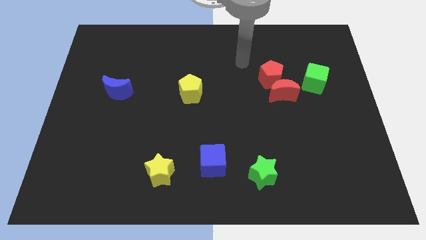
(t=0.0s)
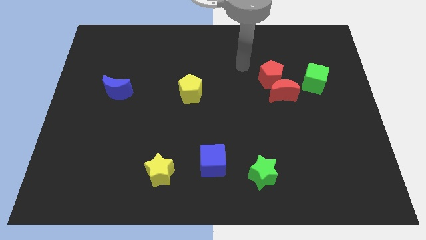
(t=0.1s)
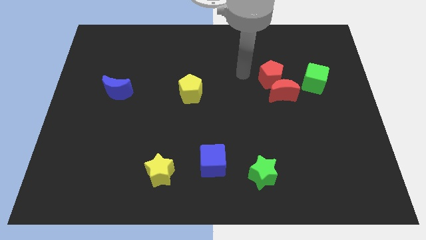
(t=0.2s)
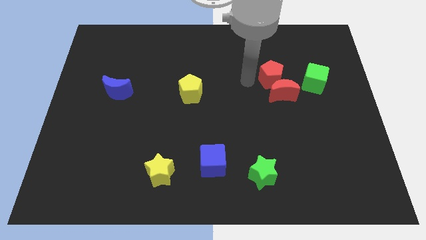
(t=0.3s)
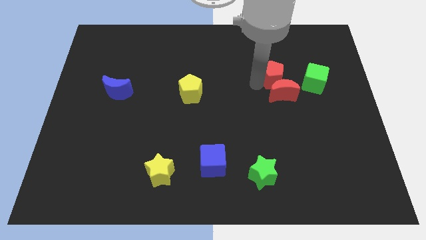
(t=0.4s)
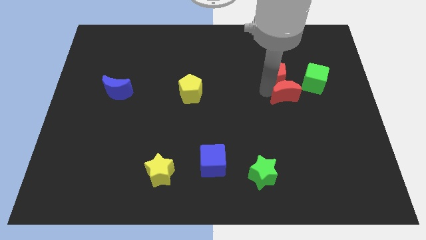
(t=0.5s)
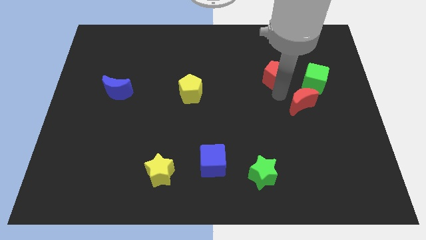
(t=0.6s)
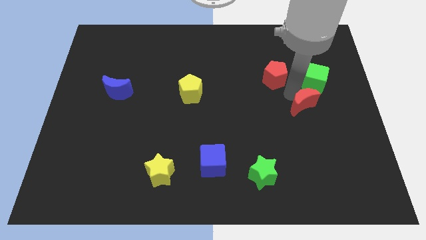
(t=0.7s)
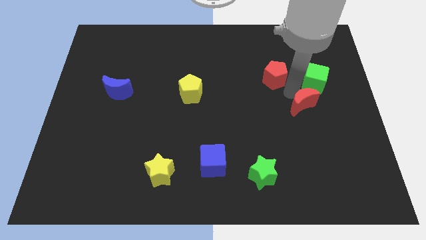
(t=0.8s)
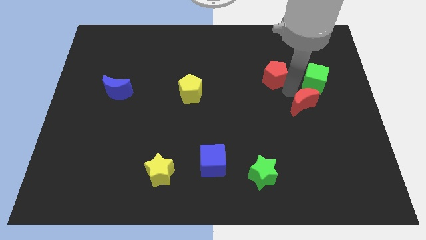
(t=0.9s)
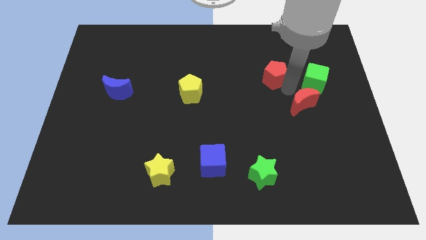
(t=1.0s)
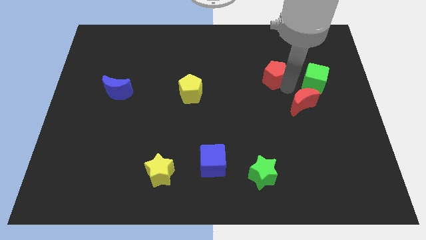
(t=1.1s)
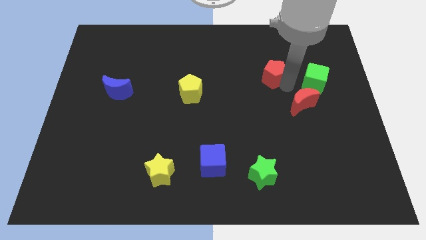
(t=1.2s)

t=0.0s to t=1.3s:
separate the red pentagon from the red moon

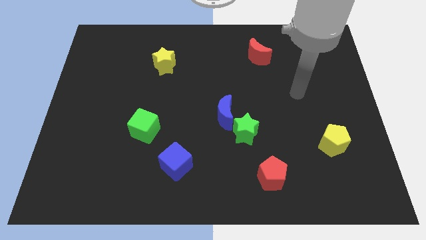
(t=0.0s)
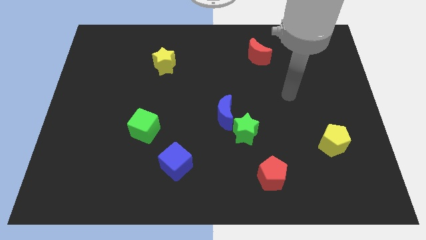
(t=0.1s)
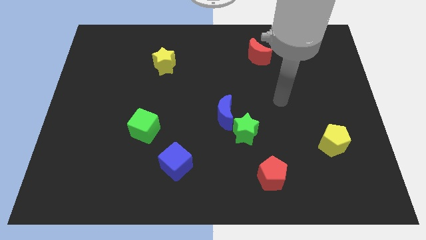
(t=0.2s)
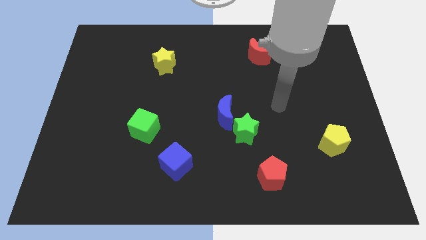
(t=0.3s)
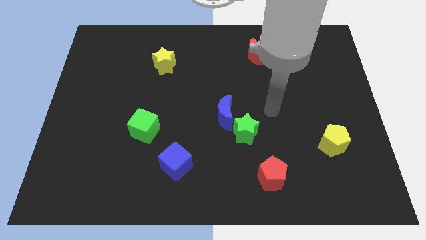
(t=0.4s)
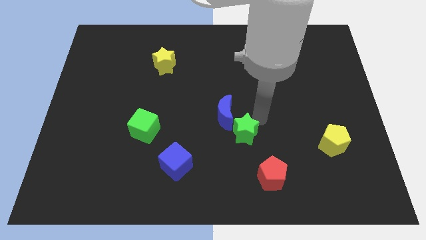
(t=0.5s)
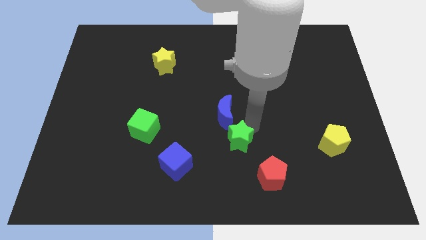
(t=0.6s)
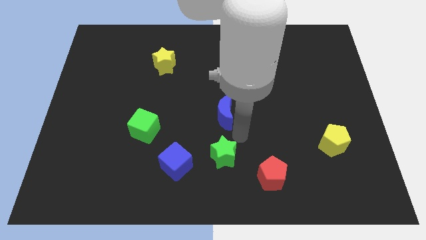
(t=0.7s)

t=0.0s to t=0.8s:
pull the blue moon apart from the green star

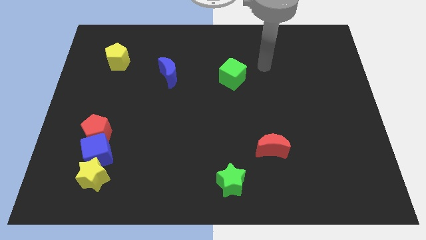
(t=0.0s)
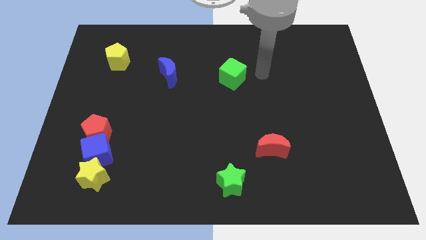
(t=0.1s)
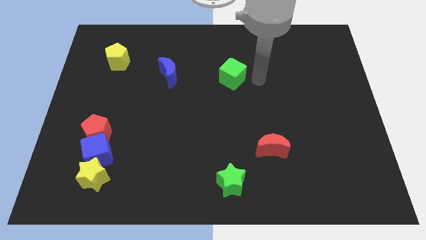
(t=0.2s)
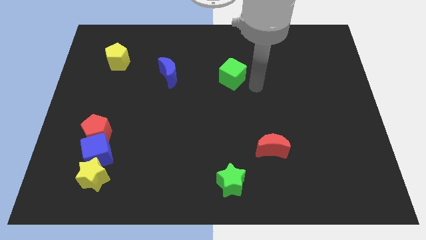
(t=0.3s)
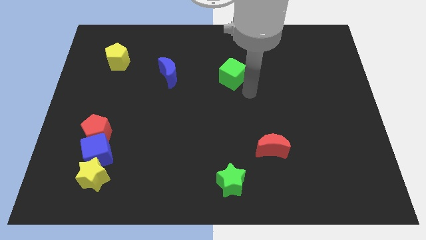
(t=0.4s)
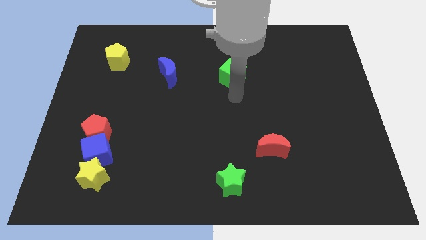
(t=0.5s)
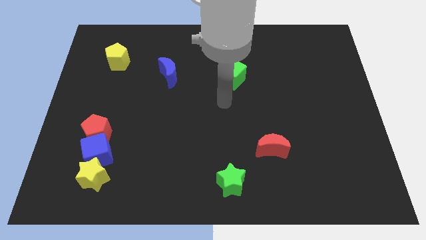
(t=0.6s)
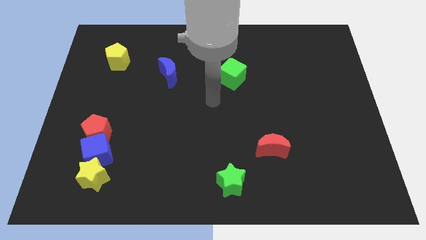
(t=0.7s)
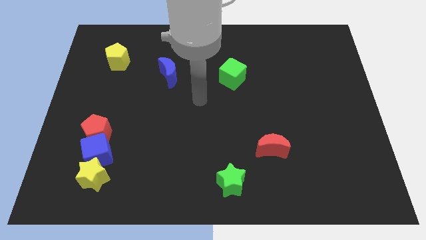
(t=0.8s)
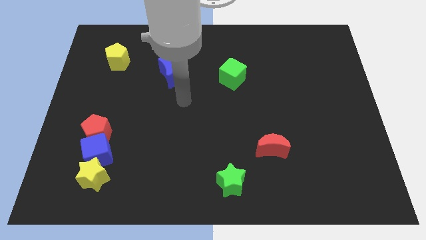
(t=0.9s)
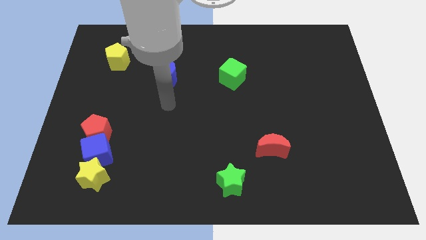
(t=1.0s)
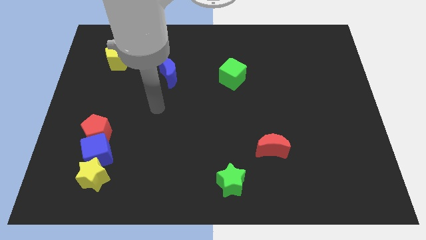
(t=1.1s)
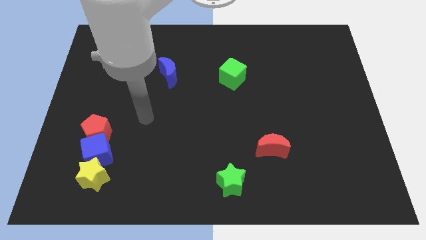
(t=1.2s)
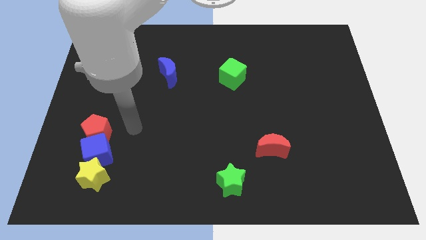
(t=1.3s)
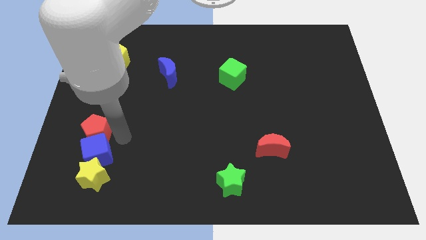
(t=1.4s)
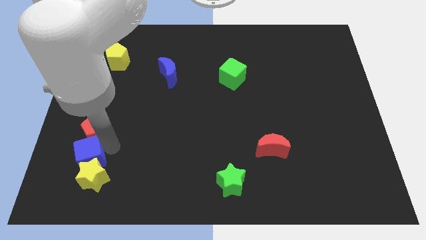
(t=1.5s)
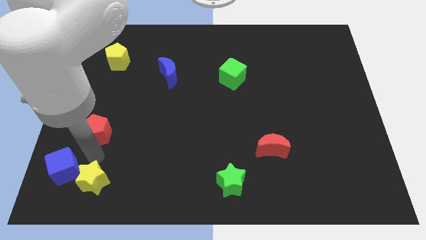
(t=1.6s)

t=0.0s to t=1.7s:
separate the red pentagon from the blue cube

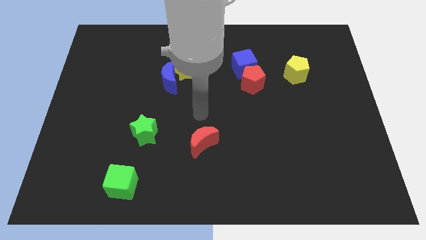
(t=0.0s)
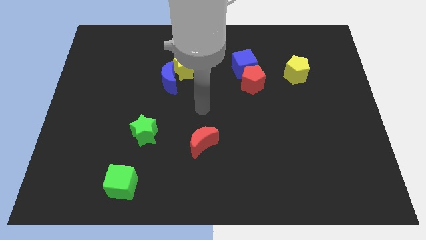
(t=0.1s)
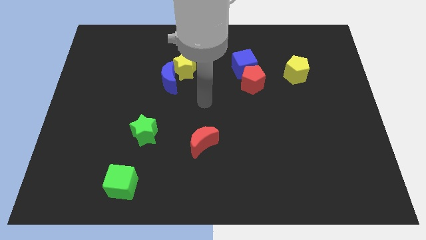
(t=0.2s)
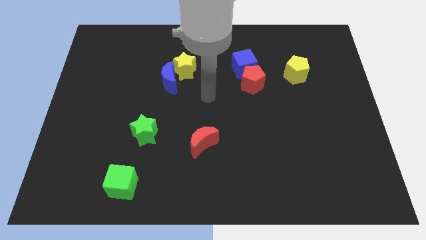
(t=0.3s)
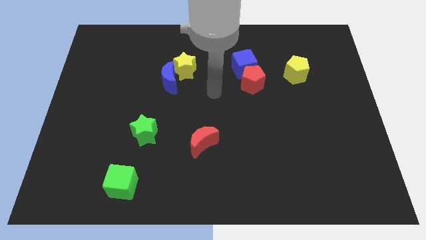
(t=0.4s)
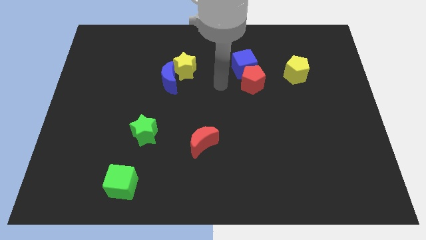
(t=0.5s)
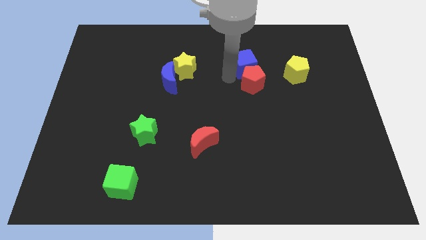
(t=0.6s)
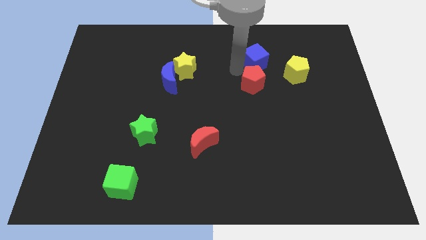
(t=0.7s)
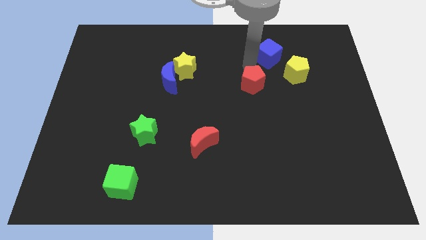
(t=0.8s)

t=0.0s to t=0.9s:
pull the red pentagon apart from the blue cube

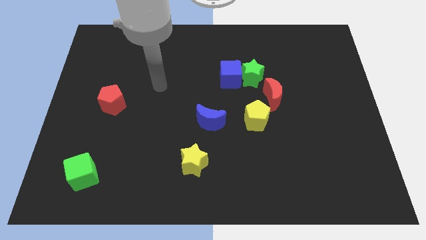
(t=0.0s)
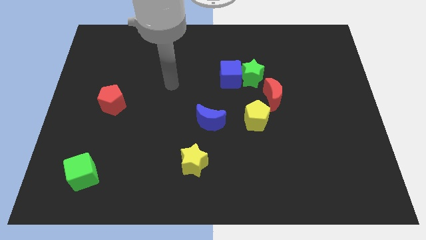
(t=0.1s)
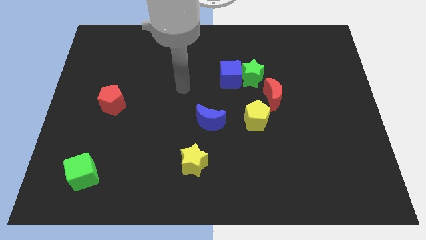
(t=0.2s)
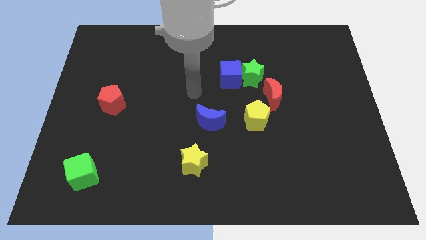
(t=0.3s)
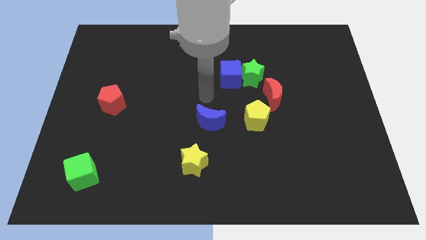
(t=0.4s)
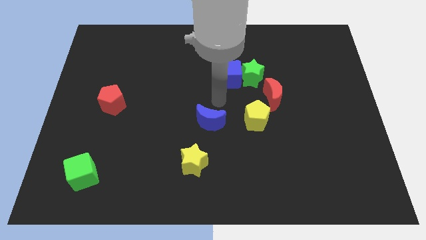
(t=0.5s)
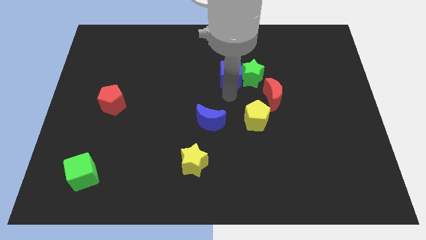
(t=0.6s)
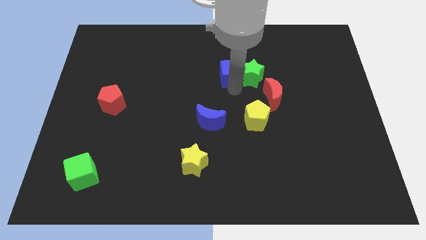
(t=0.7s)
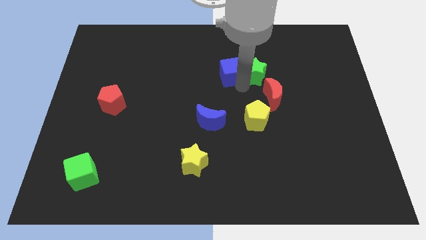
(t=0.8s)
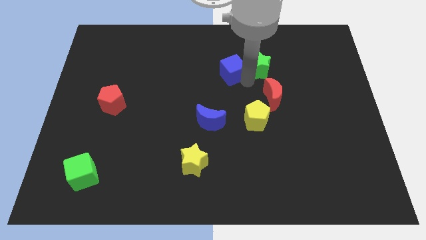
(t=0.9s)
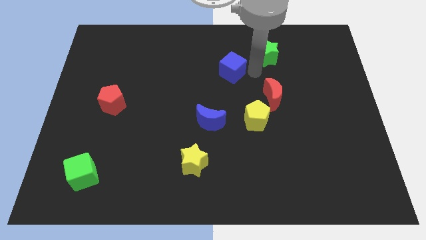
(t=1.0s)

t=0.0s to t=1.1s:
pull the blue cube apart from the green star

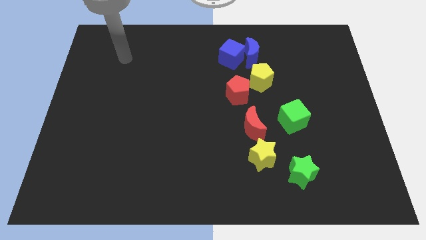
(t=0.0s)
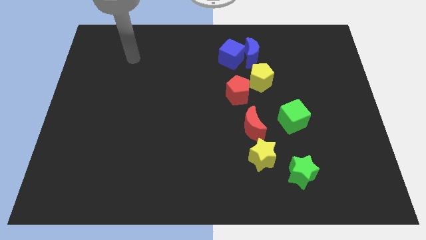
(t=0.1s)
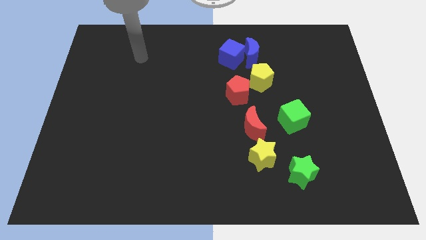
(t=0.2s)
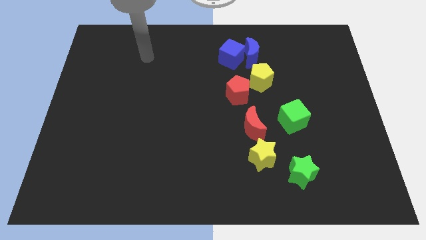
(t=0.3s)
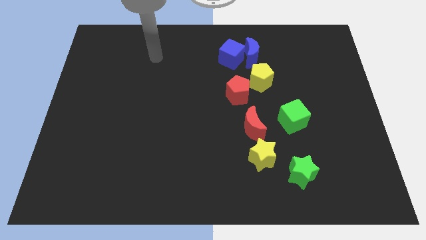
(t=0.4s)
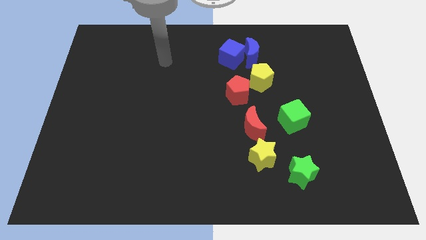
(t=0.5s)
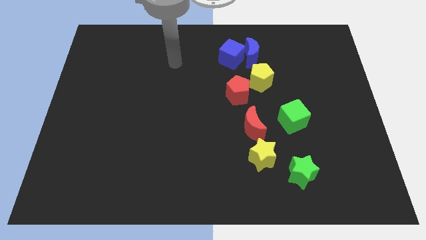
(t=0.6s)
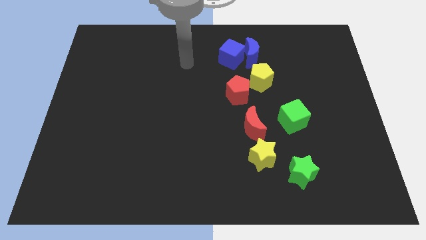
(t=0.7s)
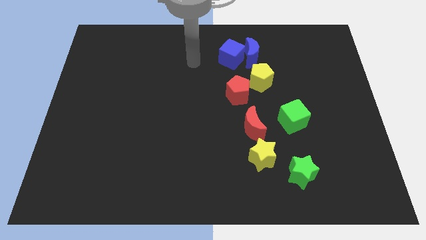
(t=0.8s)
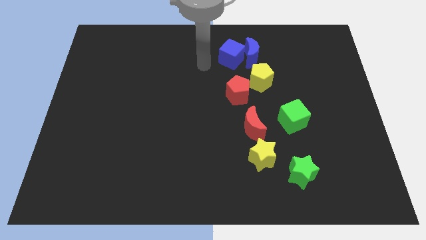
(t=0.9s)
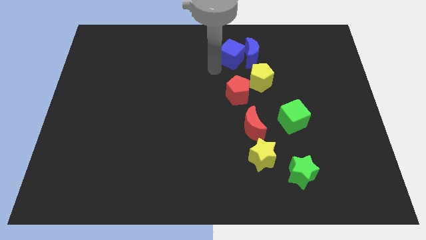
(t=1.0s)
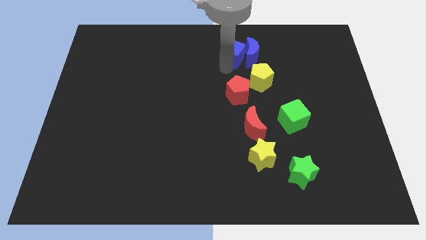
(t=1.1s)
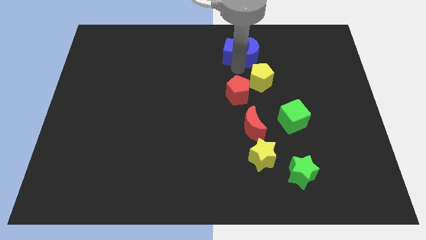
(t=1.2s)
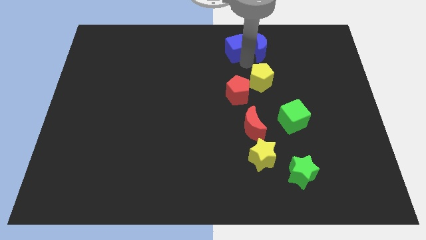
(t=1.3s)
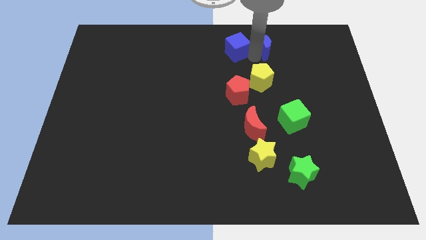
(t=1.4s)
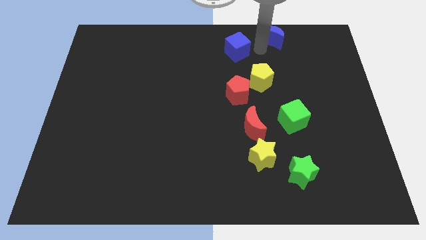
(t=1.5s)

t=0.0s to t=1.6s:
move the blue cube away from the blue moon

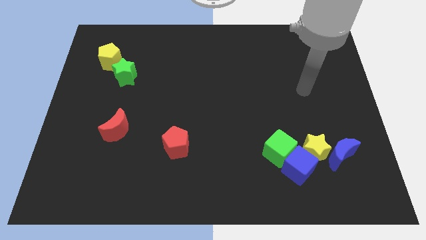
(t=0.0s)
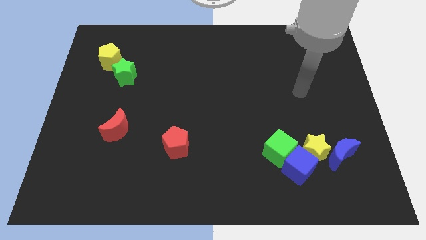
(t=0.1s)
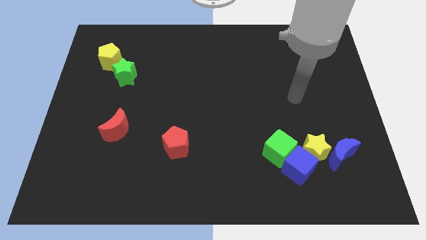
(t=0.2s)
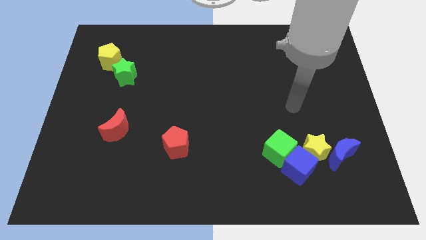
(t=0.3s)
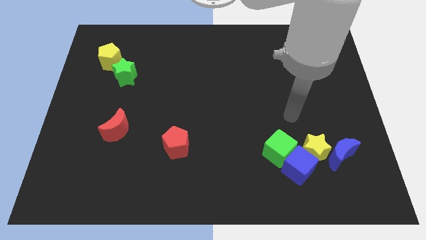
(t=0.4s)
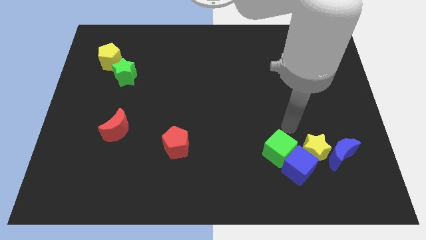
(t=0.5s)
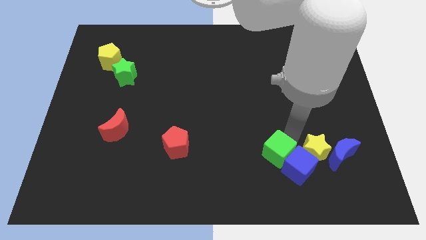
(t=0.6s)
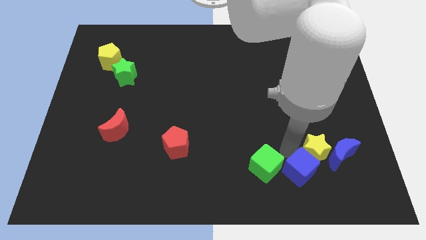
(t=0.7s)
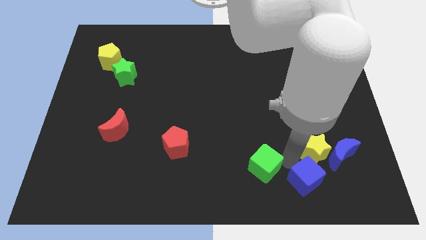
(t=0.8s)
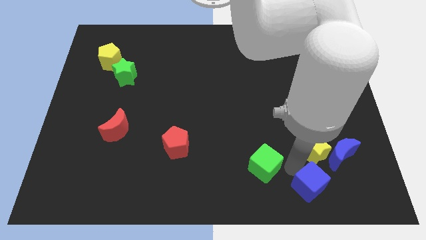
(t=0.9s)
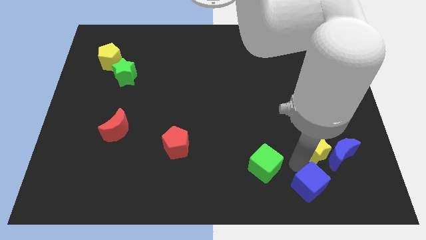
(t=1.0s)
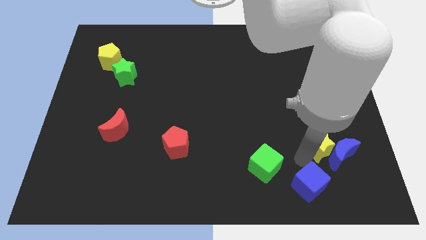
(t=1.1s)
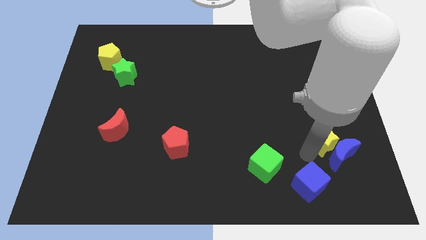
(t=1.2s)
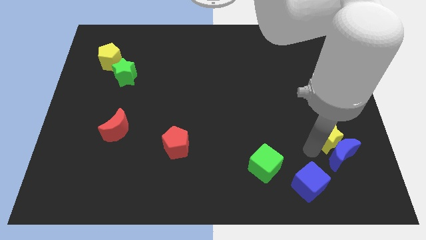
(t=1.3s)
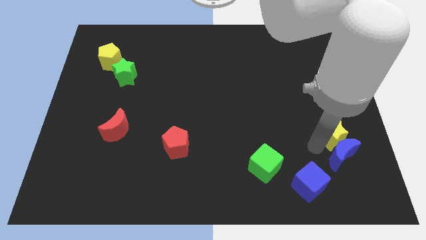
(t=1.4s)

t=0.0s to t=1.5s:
separate the yellow star from the group of blocks

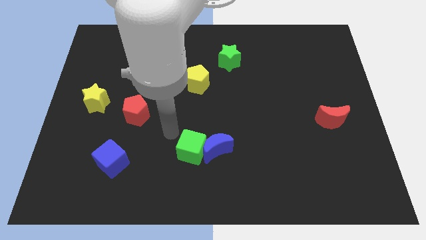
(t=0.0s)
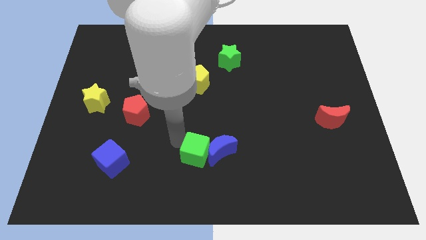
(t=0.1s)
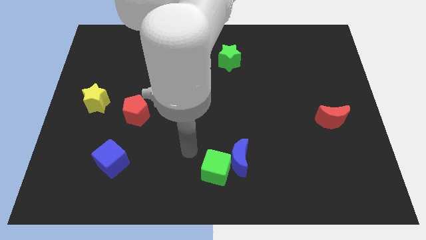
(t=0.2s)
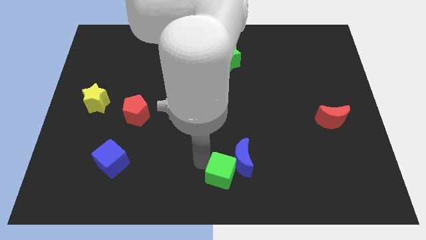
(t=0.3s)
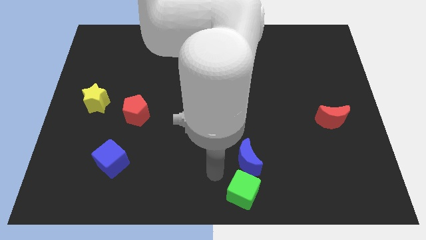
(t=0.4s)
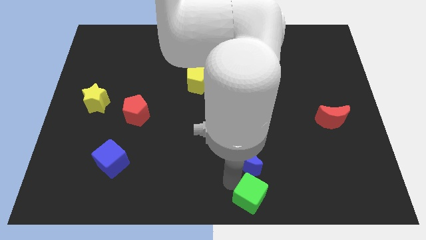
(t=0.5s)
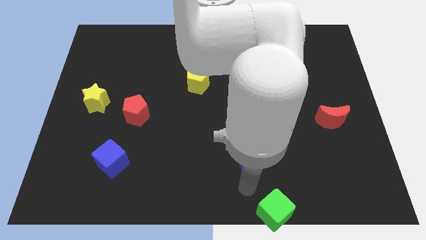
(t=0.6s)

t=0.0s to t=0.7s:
move the blue moon away from the green cube
